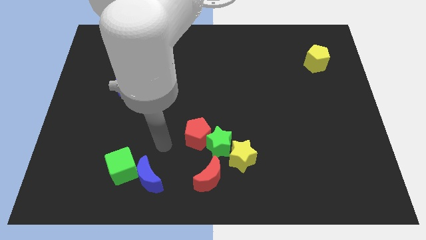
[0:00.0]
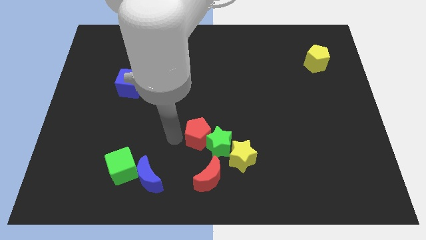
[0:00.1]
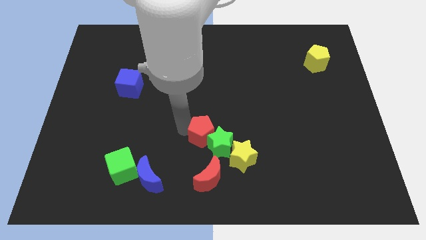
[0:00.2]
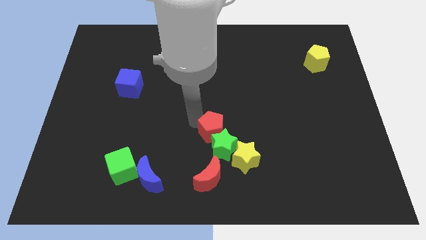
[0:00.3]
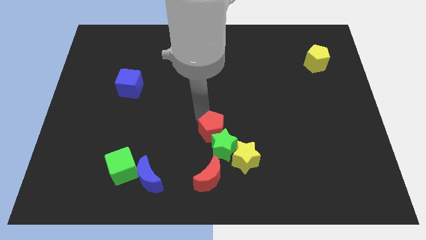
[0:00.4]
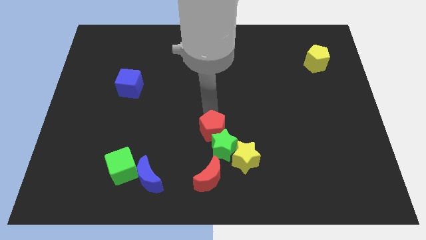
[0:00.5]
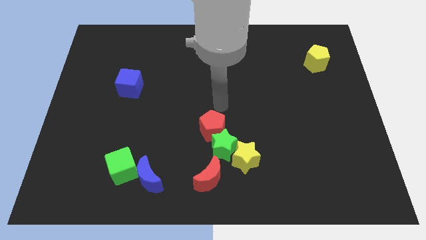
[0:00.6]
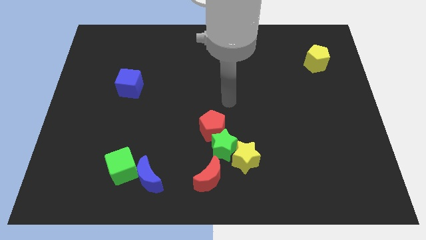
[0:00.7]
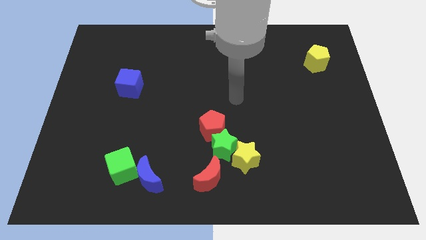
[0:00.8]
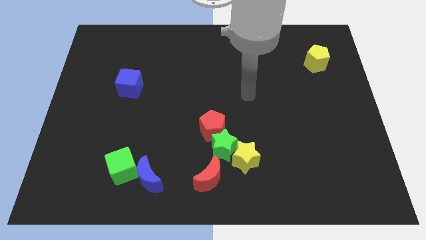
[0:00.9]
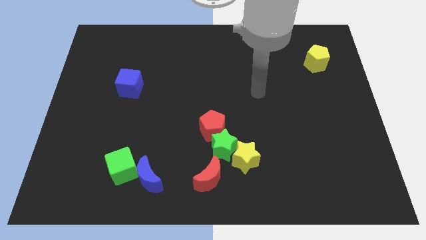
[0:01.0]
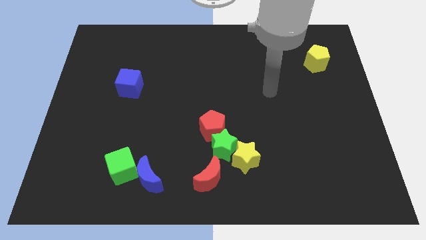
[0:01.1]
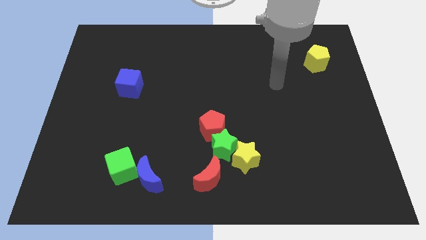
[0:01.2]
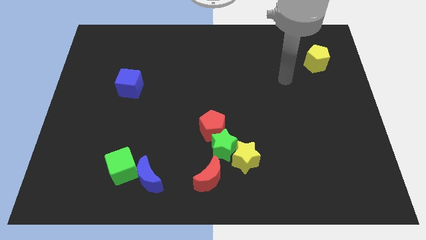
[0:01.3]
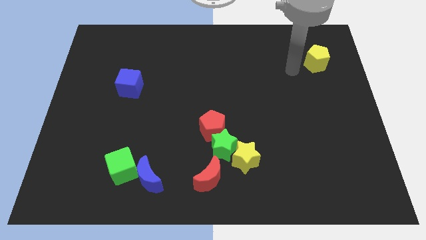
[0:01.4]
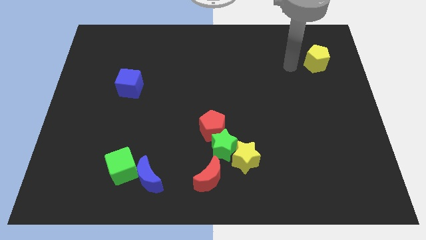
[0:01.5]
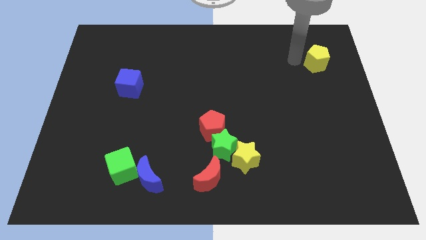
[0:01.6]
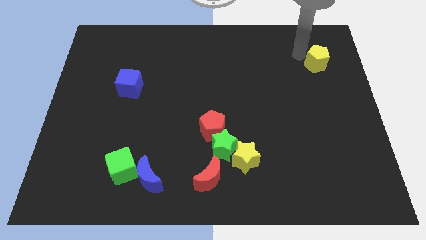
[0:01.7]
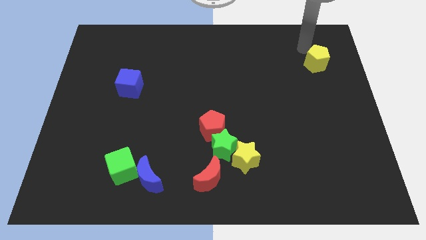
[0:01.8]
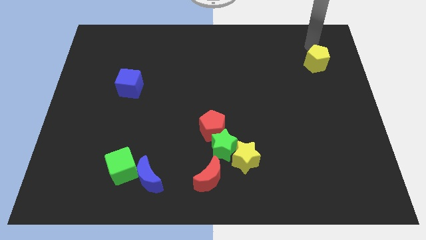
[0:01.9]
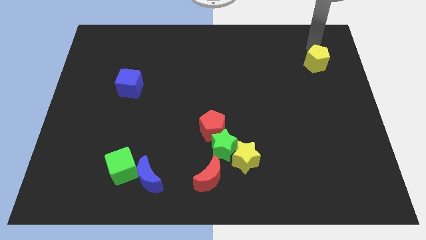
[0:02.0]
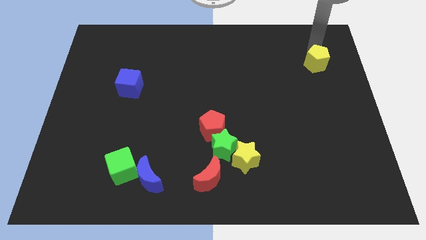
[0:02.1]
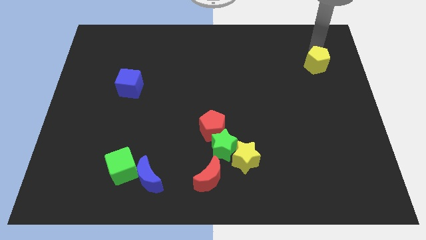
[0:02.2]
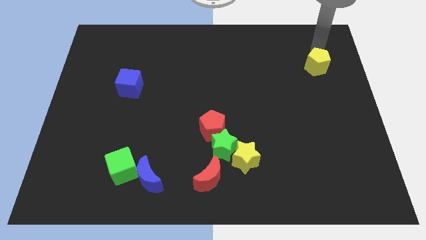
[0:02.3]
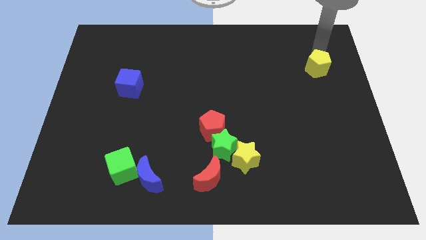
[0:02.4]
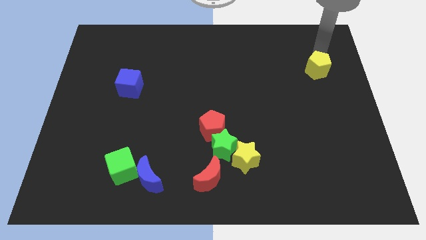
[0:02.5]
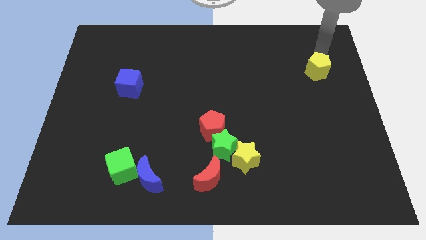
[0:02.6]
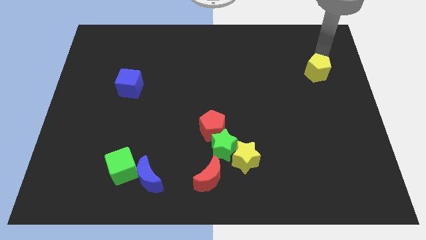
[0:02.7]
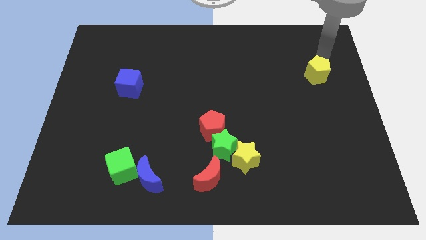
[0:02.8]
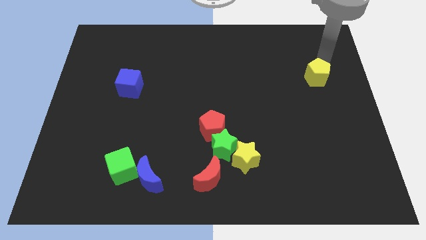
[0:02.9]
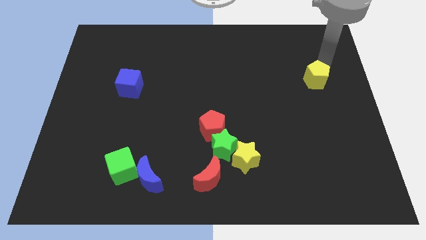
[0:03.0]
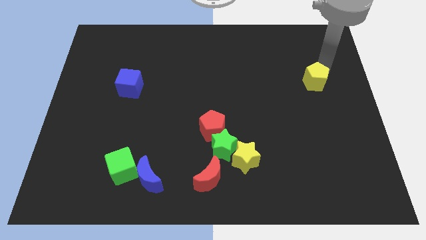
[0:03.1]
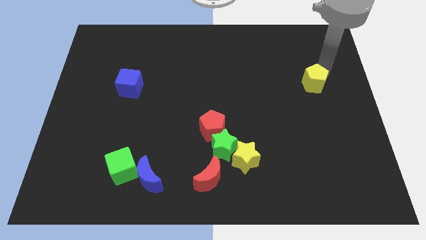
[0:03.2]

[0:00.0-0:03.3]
move the yellow pentagon down a little bit

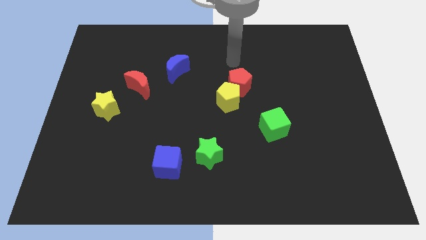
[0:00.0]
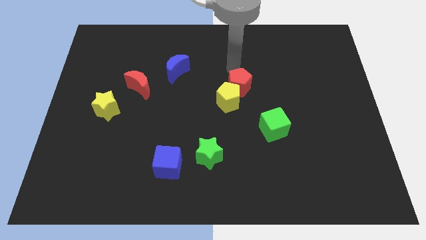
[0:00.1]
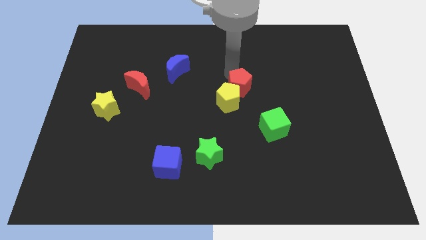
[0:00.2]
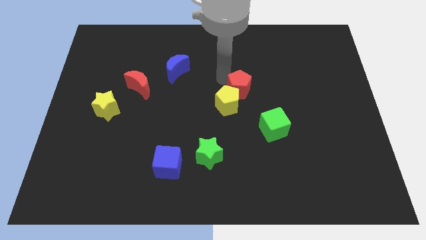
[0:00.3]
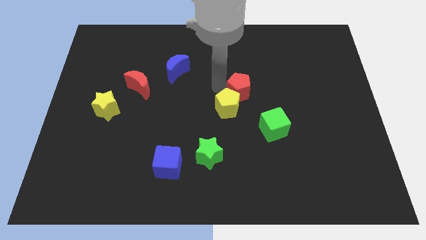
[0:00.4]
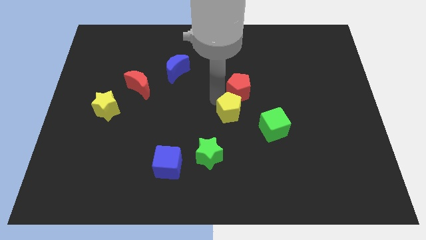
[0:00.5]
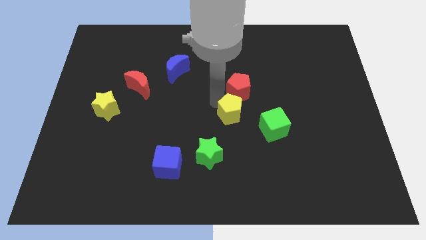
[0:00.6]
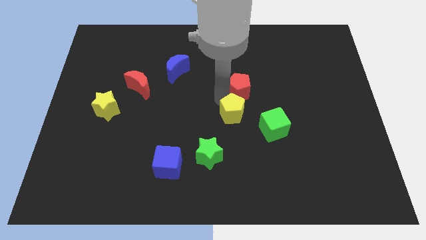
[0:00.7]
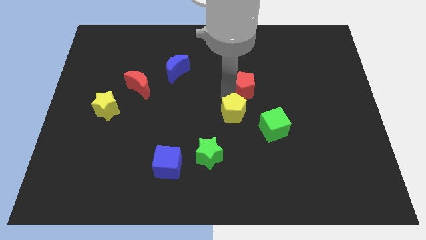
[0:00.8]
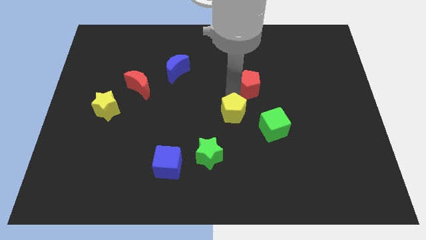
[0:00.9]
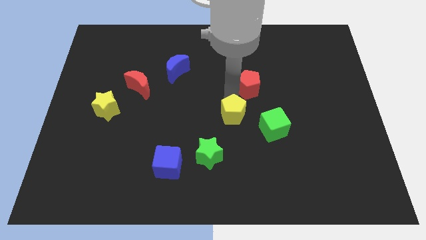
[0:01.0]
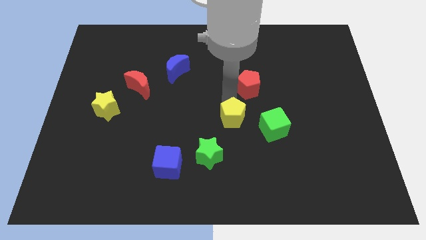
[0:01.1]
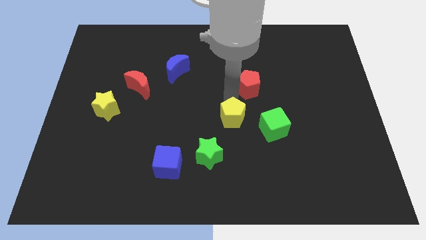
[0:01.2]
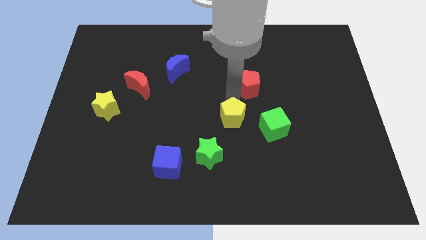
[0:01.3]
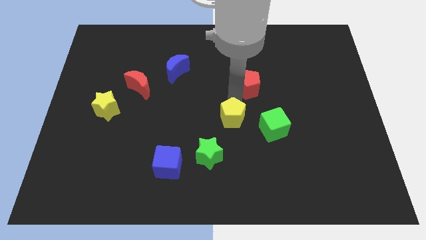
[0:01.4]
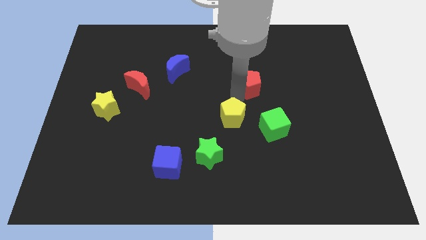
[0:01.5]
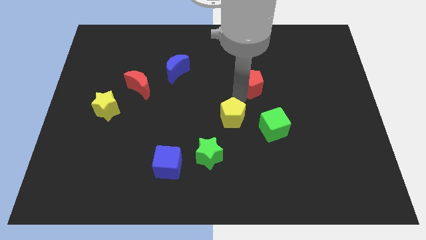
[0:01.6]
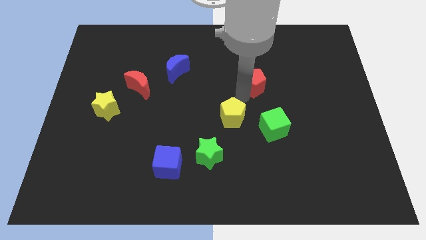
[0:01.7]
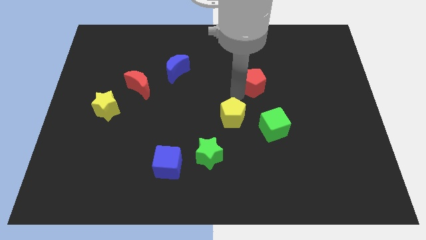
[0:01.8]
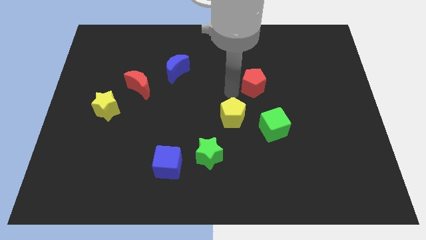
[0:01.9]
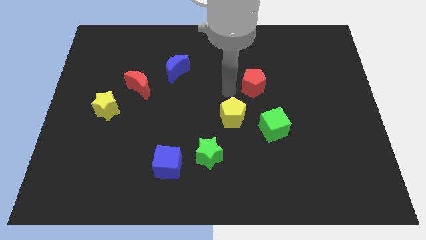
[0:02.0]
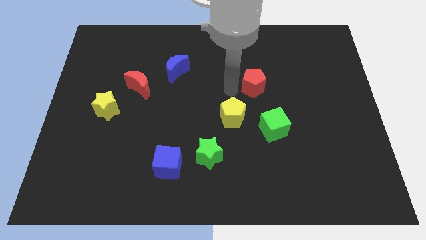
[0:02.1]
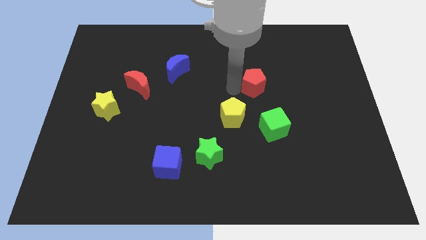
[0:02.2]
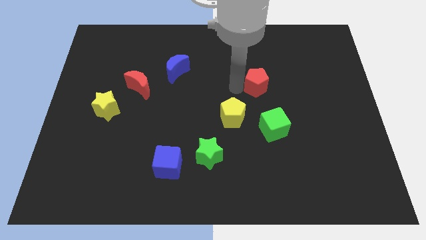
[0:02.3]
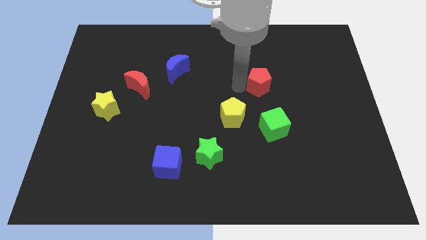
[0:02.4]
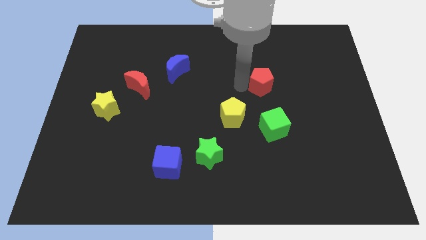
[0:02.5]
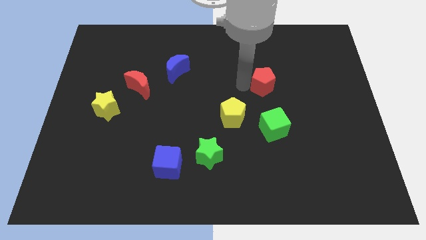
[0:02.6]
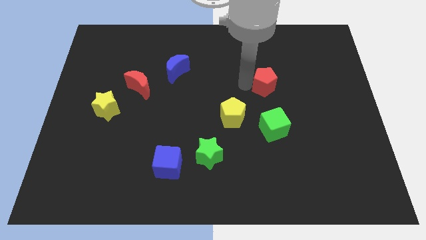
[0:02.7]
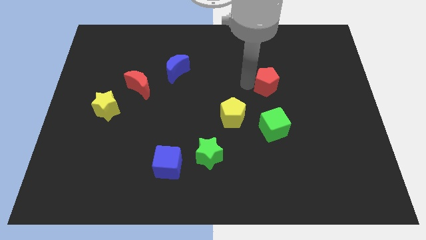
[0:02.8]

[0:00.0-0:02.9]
move the red pentagon a little right

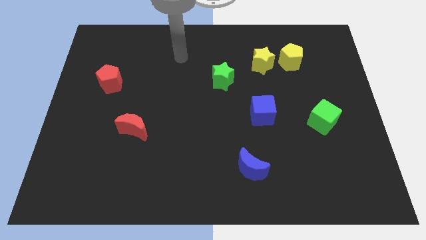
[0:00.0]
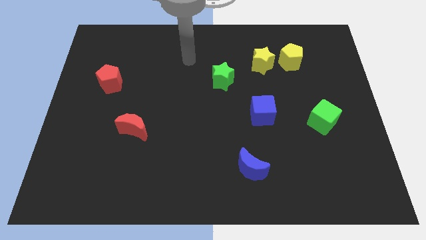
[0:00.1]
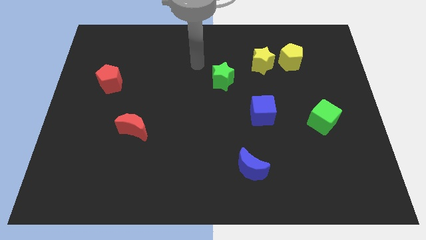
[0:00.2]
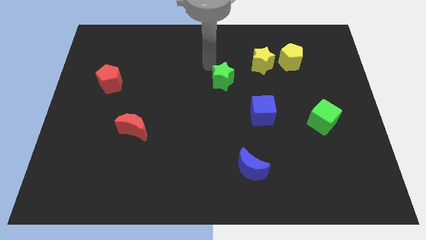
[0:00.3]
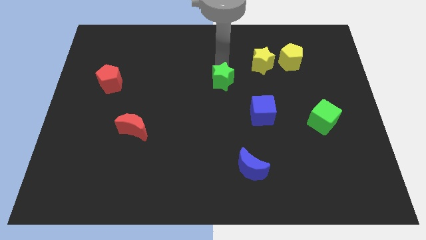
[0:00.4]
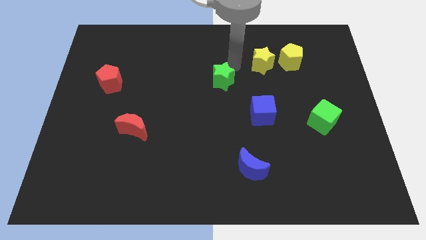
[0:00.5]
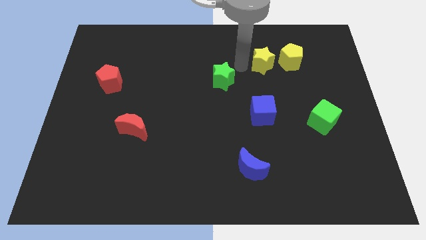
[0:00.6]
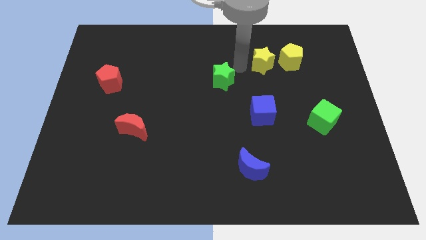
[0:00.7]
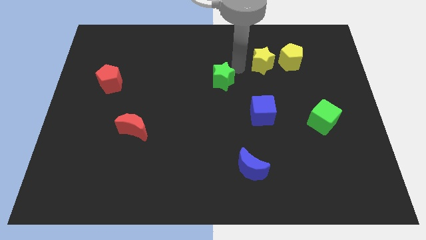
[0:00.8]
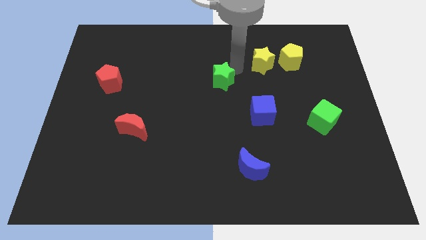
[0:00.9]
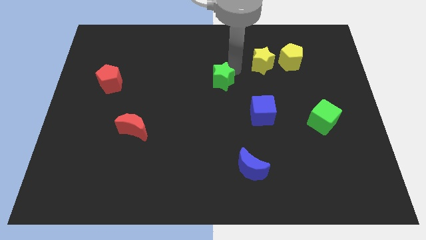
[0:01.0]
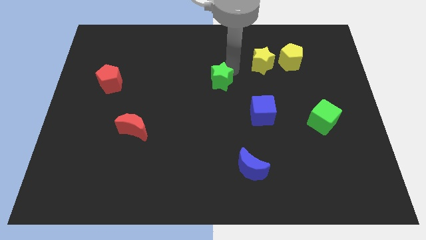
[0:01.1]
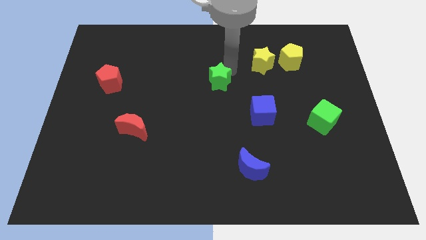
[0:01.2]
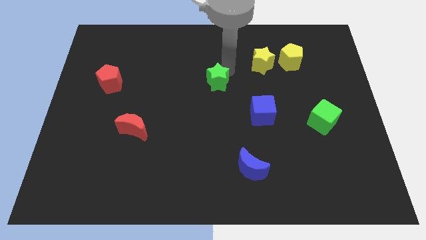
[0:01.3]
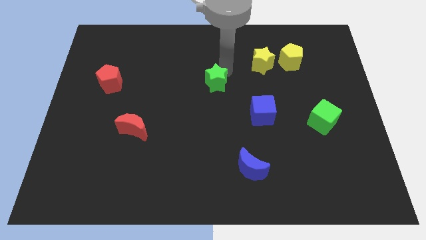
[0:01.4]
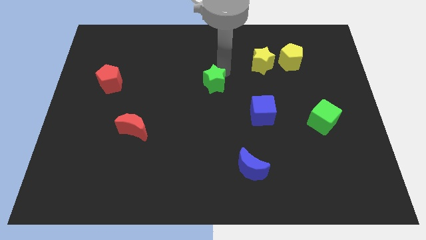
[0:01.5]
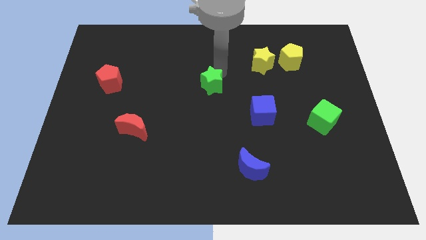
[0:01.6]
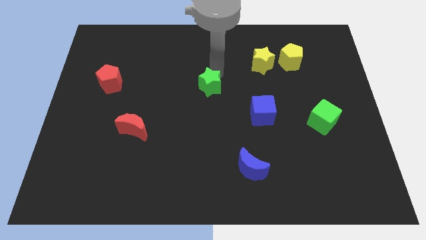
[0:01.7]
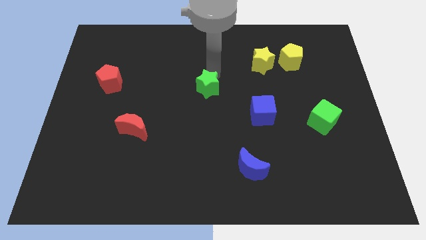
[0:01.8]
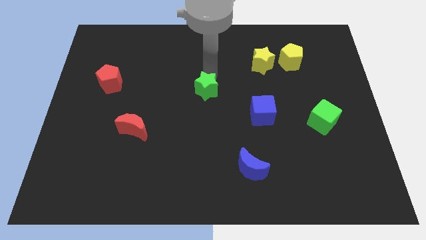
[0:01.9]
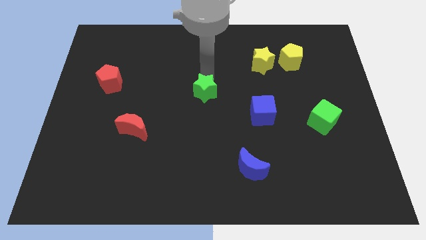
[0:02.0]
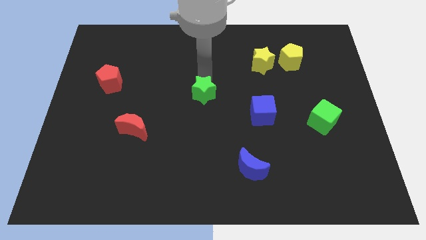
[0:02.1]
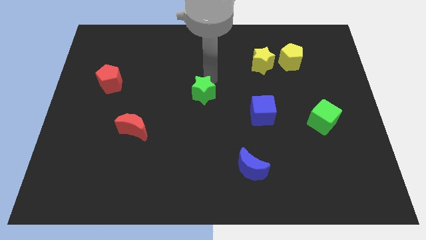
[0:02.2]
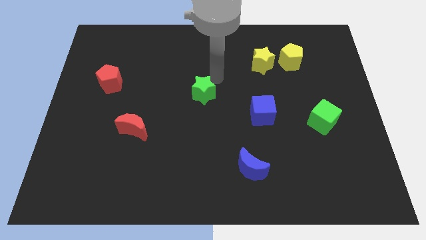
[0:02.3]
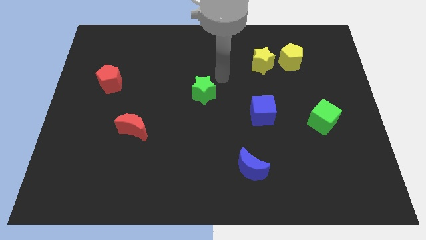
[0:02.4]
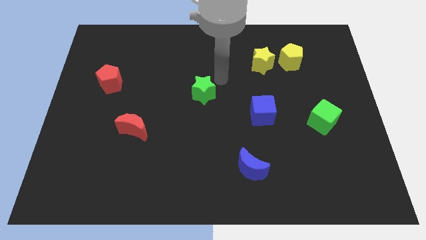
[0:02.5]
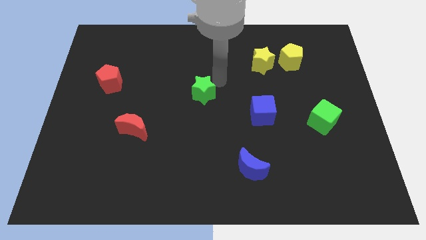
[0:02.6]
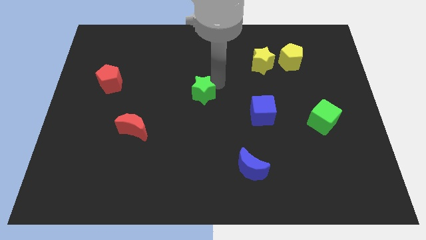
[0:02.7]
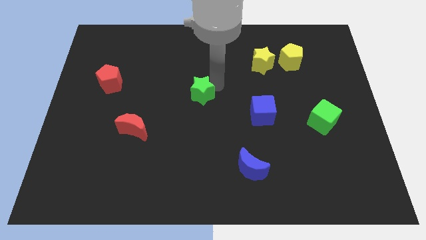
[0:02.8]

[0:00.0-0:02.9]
slide the green star down and to the left a bit
